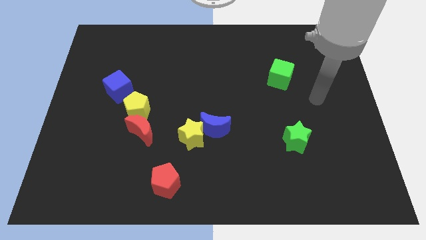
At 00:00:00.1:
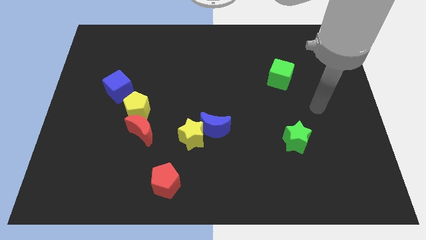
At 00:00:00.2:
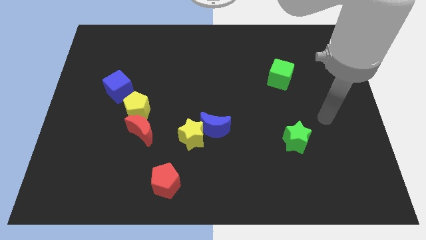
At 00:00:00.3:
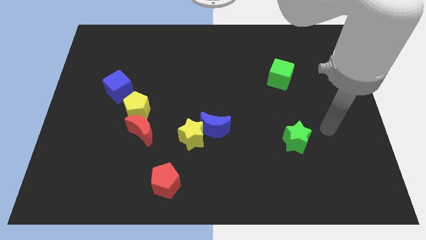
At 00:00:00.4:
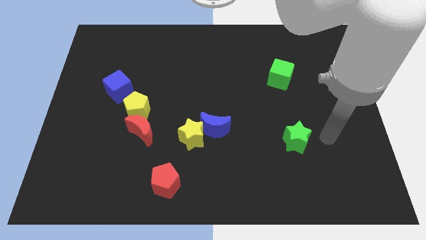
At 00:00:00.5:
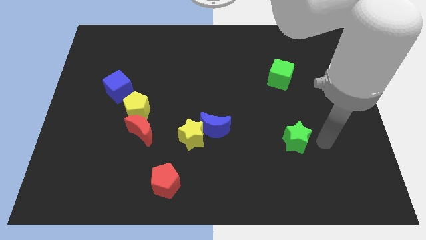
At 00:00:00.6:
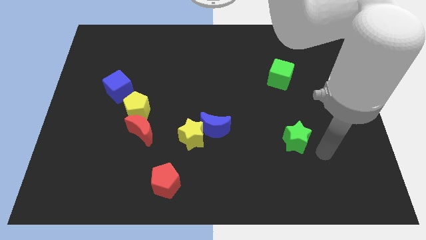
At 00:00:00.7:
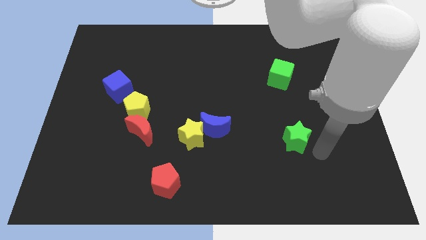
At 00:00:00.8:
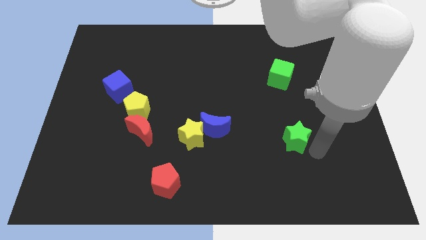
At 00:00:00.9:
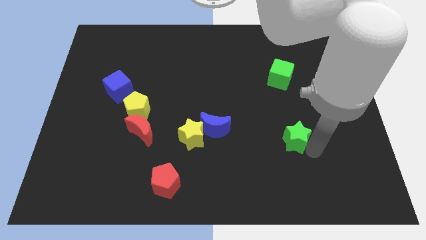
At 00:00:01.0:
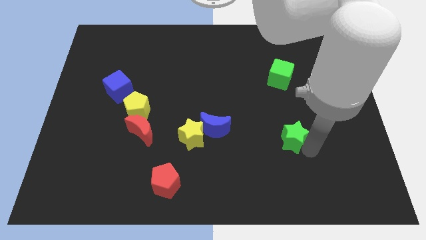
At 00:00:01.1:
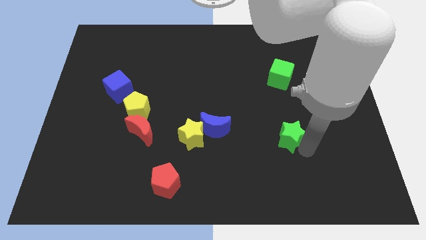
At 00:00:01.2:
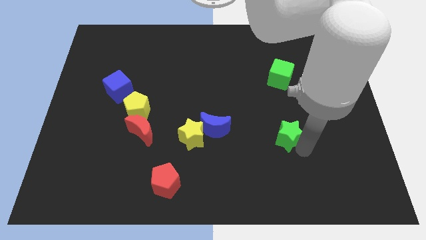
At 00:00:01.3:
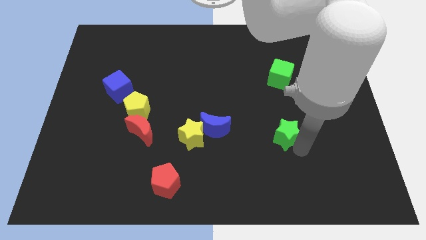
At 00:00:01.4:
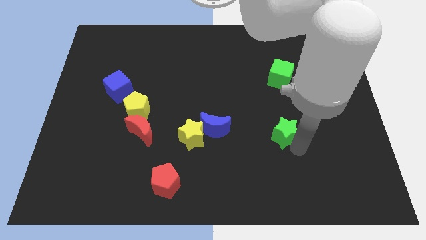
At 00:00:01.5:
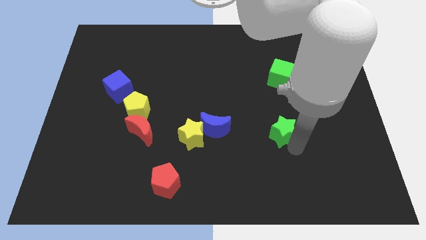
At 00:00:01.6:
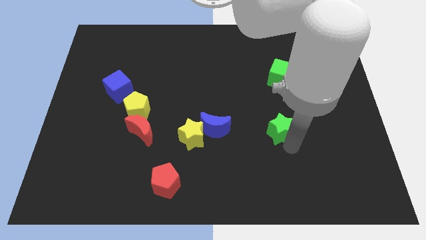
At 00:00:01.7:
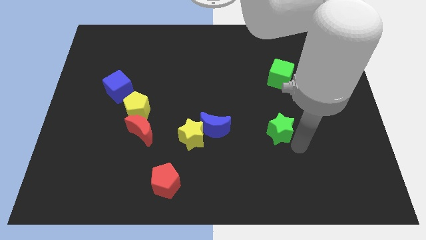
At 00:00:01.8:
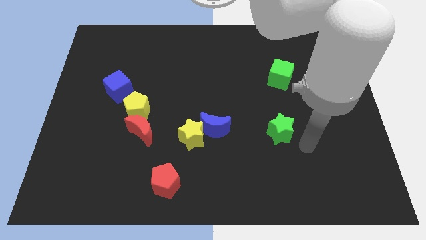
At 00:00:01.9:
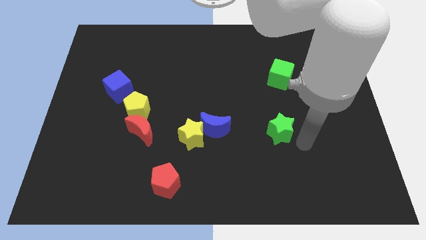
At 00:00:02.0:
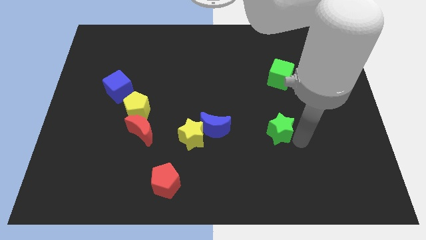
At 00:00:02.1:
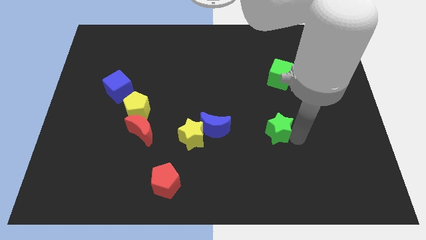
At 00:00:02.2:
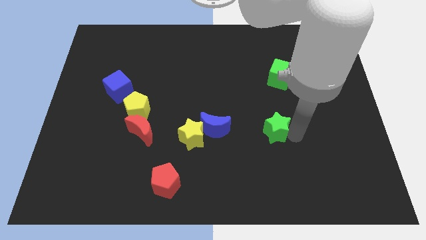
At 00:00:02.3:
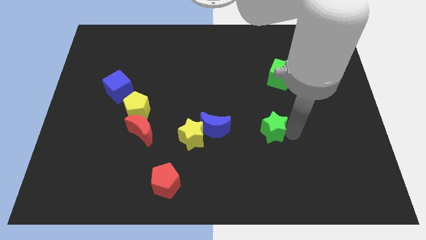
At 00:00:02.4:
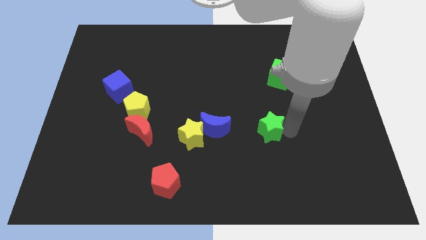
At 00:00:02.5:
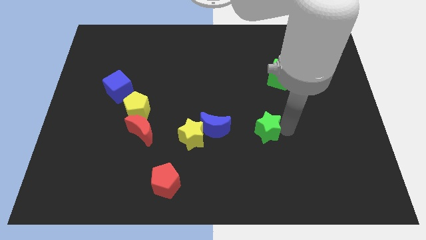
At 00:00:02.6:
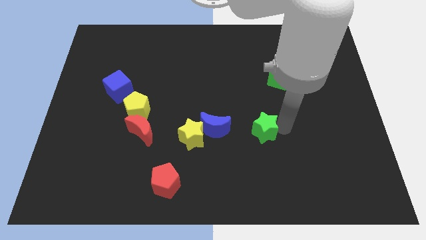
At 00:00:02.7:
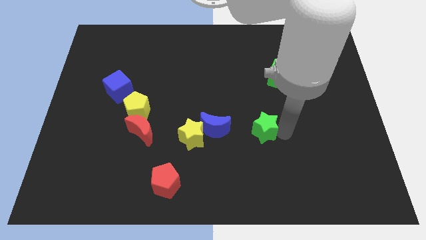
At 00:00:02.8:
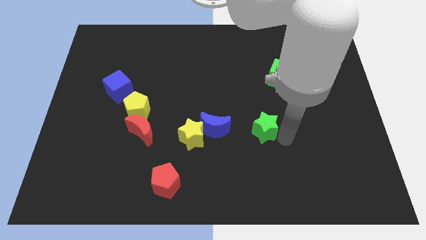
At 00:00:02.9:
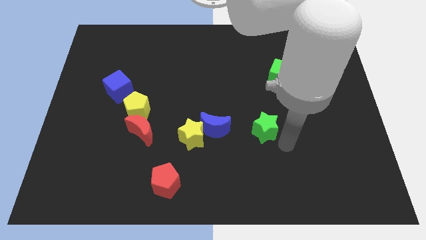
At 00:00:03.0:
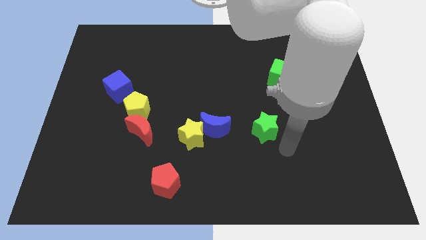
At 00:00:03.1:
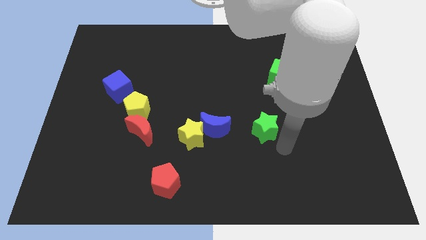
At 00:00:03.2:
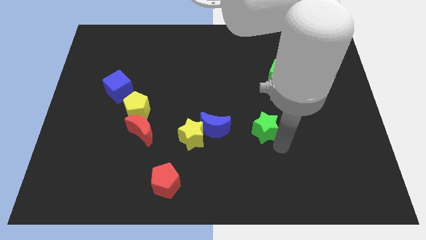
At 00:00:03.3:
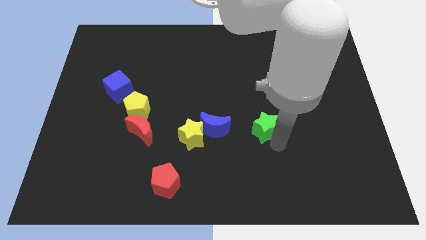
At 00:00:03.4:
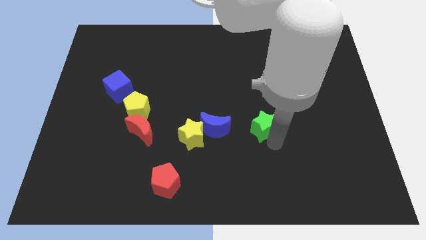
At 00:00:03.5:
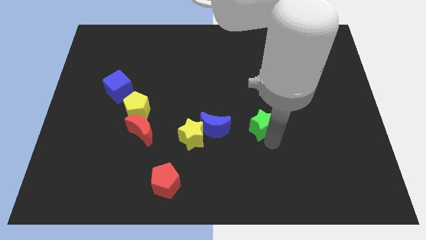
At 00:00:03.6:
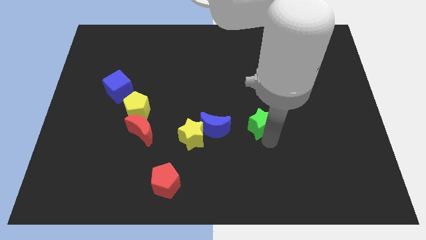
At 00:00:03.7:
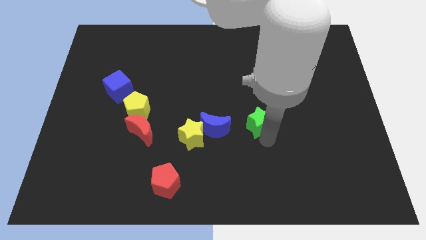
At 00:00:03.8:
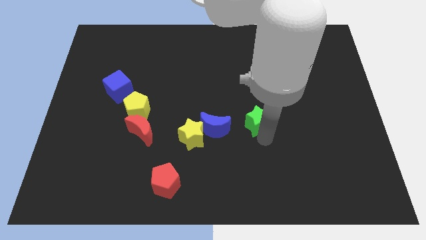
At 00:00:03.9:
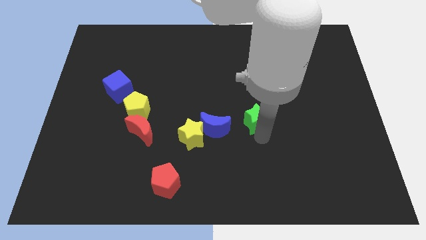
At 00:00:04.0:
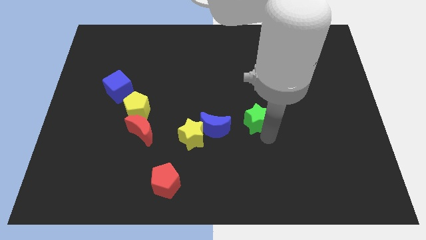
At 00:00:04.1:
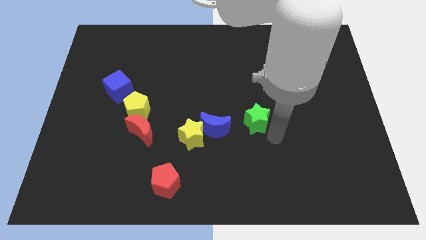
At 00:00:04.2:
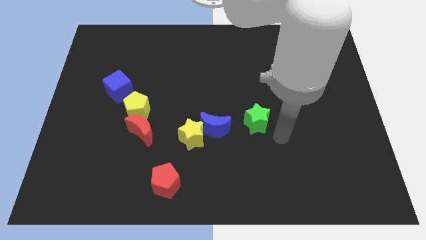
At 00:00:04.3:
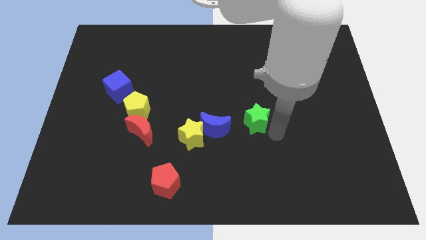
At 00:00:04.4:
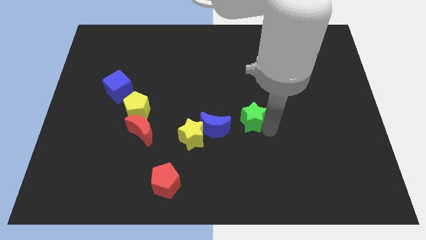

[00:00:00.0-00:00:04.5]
put the green star to the top right side of the blue moon

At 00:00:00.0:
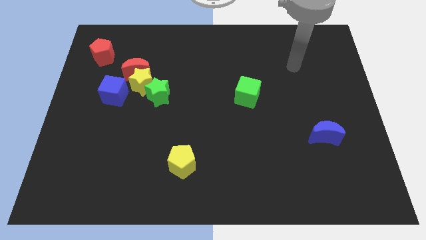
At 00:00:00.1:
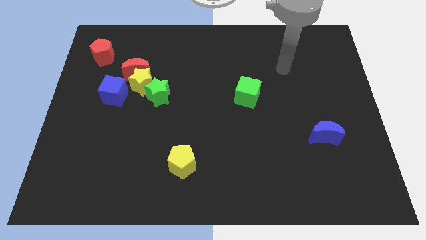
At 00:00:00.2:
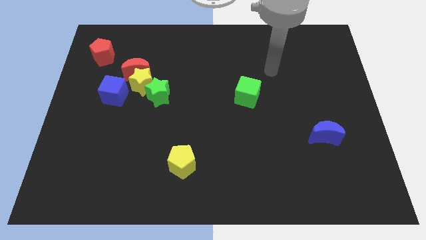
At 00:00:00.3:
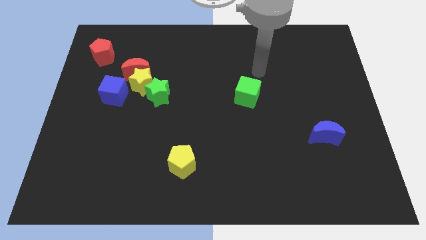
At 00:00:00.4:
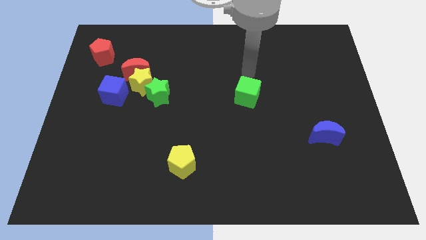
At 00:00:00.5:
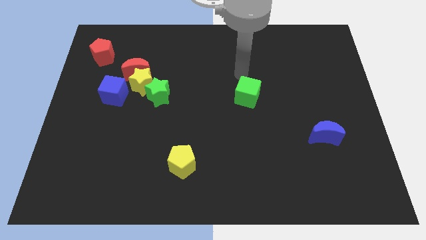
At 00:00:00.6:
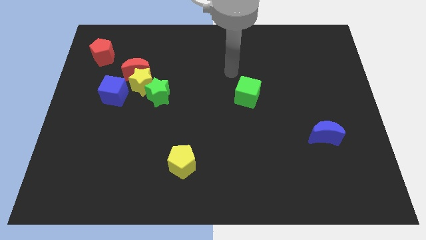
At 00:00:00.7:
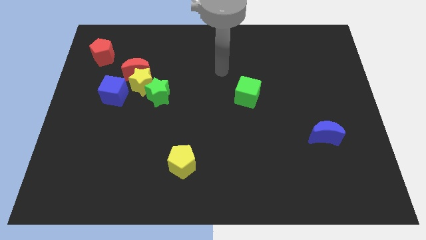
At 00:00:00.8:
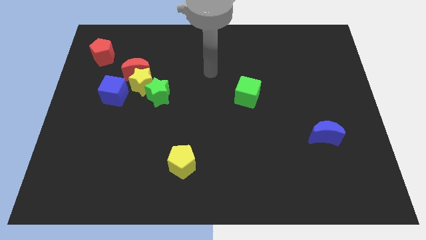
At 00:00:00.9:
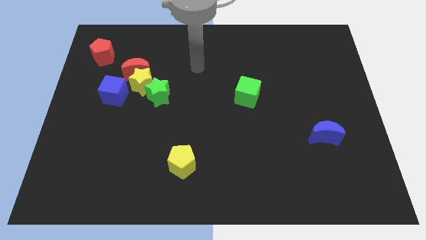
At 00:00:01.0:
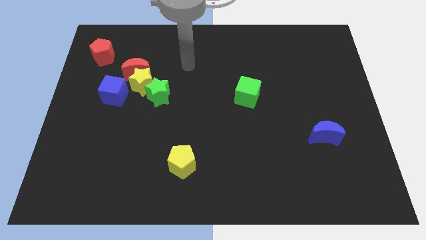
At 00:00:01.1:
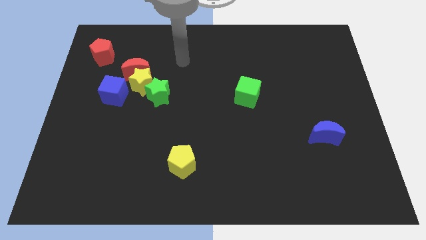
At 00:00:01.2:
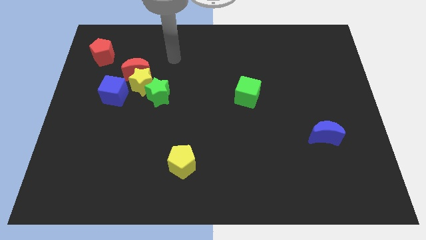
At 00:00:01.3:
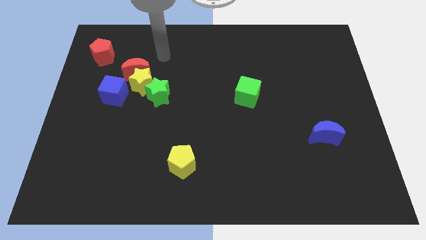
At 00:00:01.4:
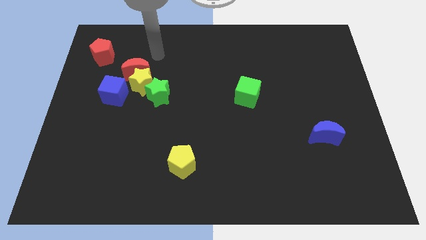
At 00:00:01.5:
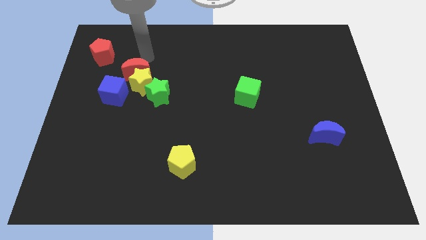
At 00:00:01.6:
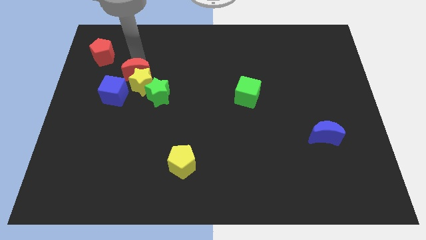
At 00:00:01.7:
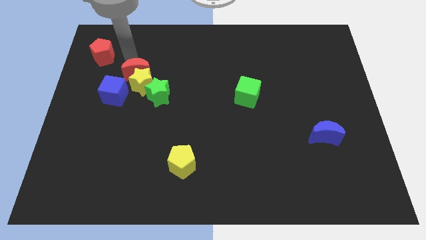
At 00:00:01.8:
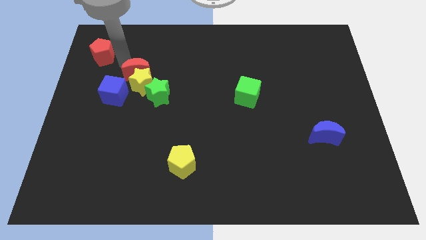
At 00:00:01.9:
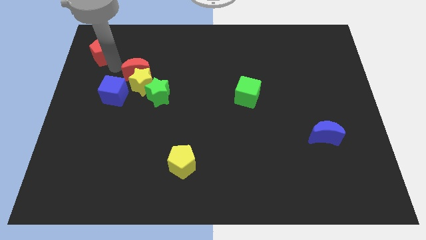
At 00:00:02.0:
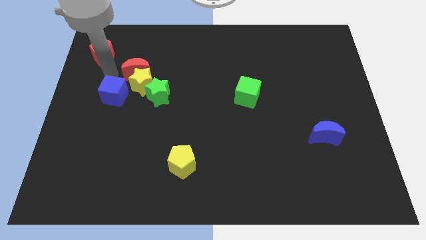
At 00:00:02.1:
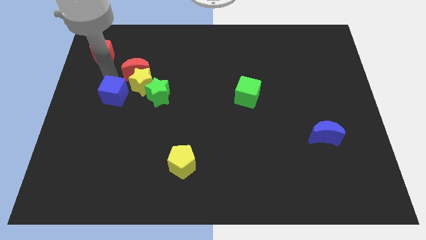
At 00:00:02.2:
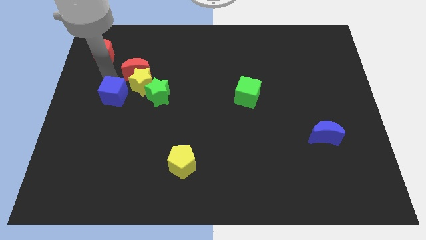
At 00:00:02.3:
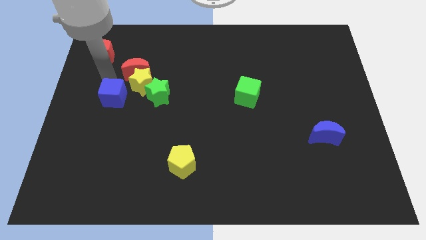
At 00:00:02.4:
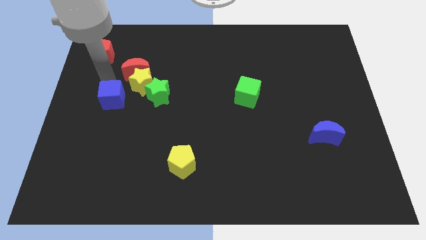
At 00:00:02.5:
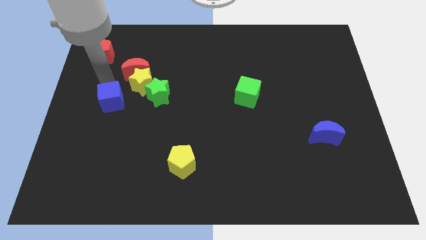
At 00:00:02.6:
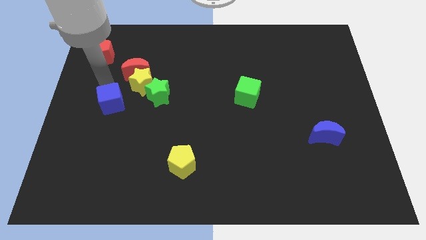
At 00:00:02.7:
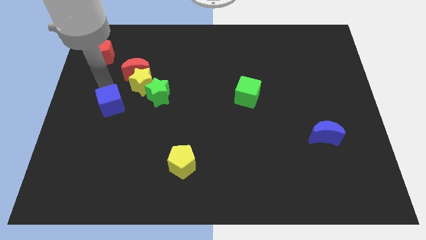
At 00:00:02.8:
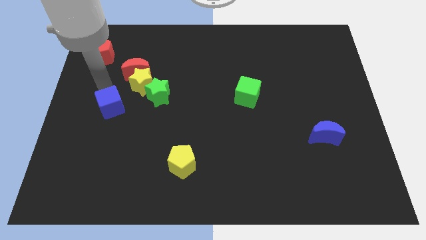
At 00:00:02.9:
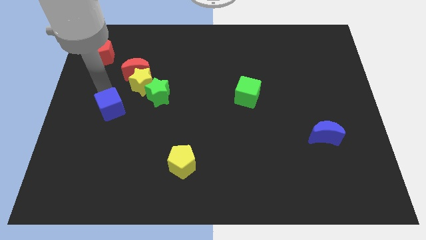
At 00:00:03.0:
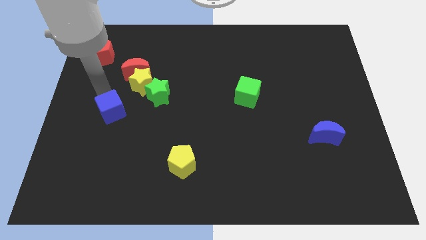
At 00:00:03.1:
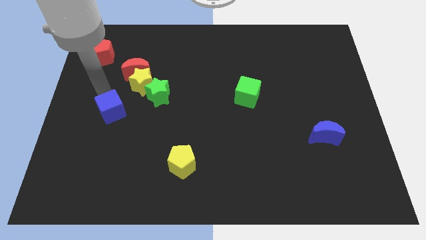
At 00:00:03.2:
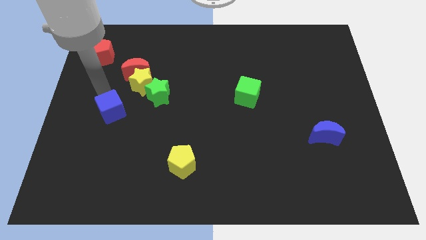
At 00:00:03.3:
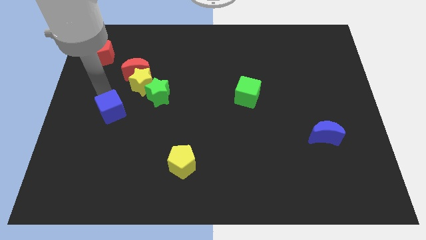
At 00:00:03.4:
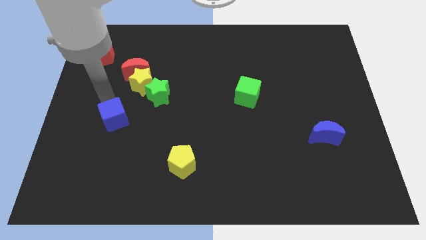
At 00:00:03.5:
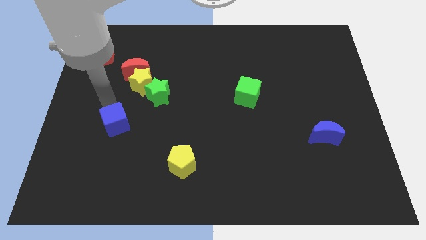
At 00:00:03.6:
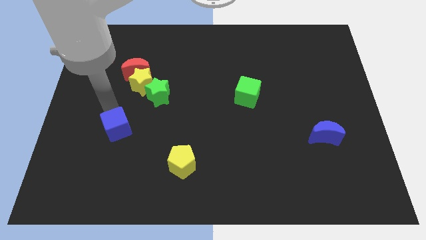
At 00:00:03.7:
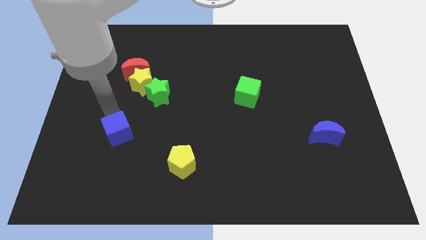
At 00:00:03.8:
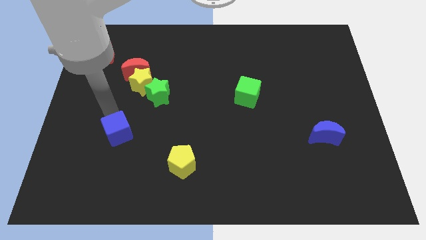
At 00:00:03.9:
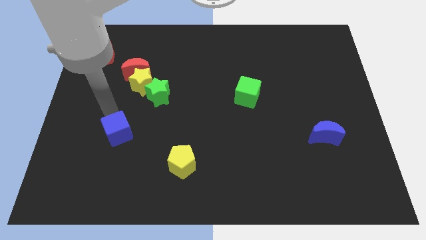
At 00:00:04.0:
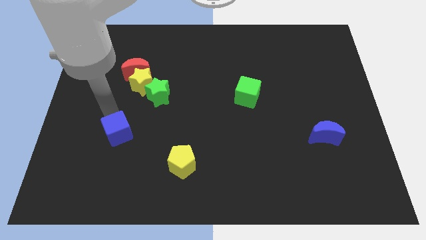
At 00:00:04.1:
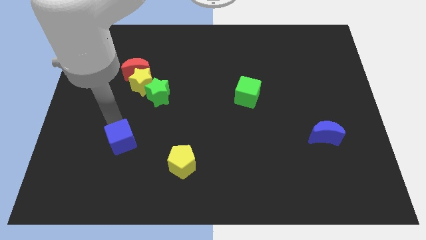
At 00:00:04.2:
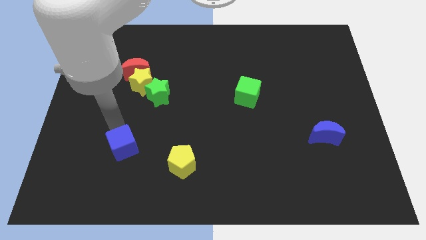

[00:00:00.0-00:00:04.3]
slide the blue cube to the left of the yellow pentagon
